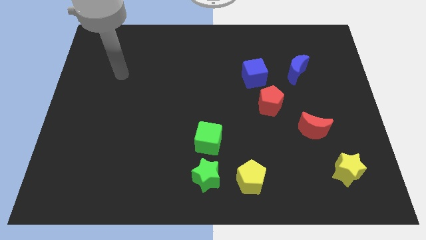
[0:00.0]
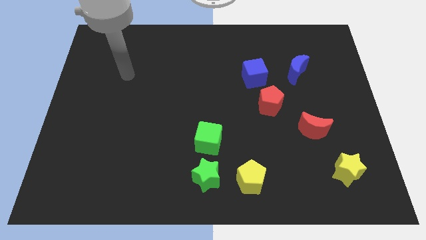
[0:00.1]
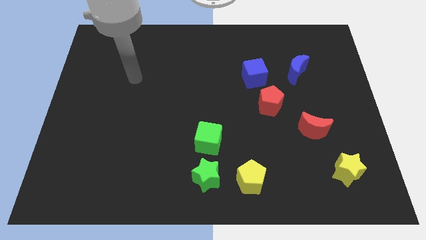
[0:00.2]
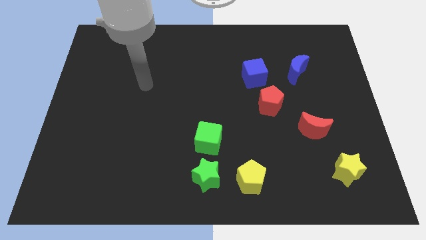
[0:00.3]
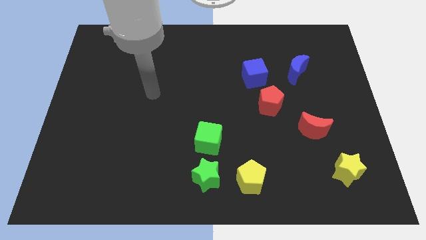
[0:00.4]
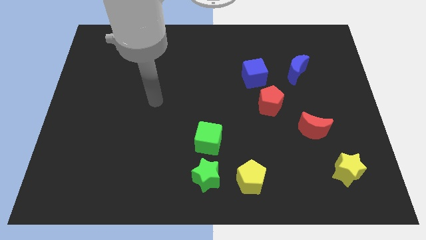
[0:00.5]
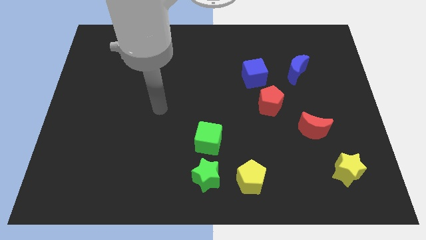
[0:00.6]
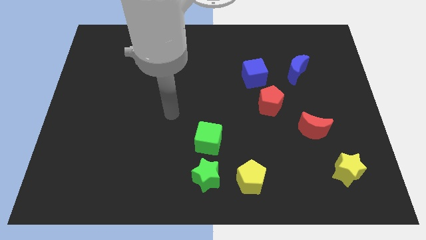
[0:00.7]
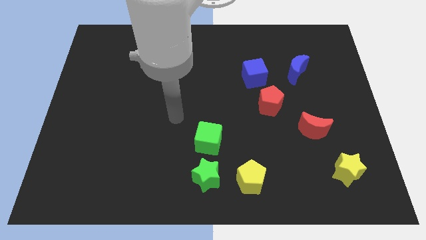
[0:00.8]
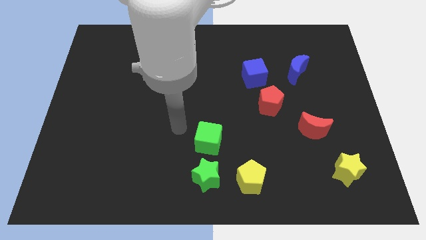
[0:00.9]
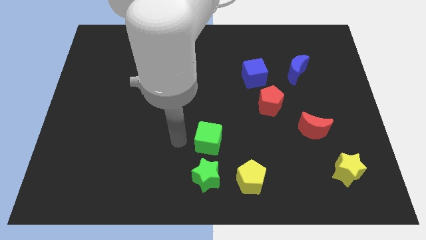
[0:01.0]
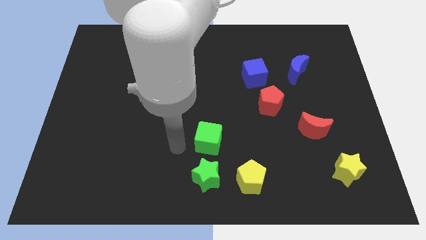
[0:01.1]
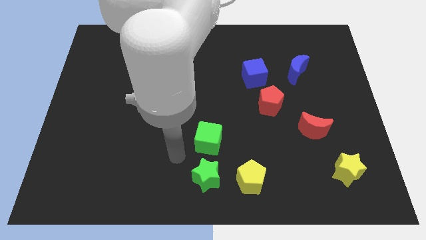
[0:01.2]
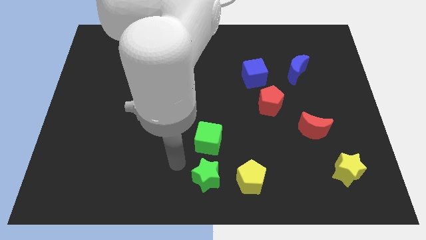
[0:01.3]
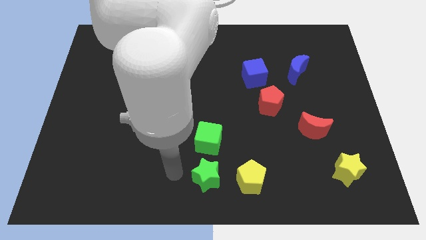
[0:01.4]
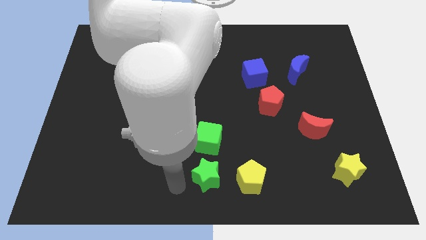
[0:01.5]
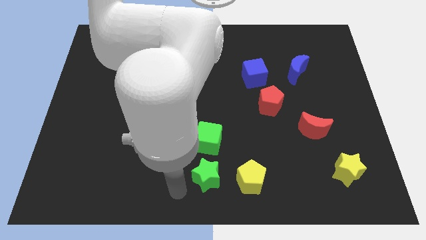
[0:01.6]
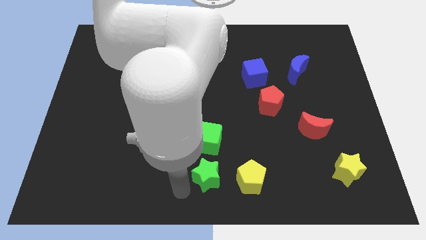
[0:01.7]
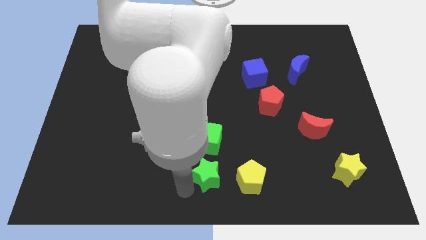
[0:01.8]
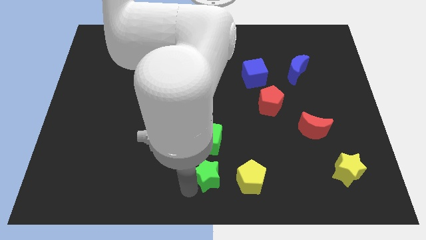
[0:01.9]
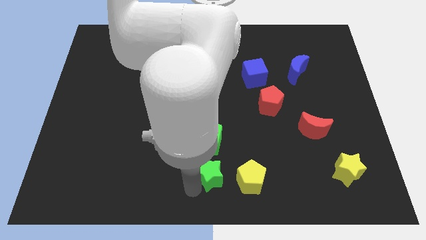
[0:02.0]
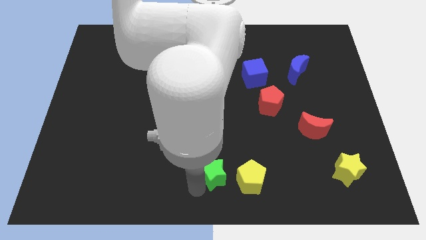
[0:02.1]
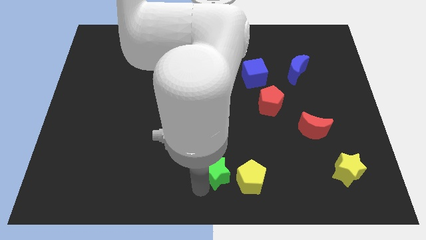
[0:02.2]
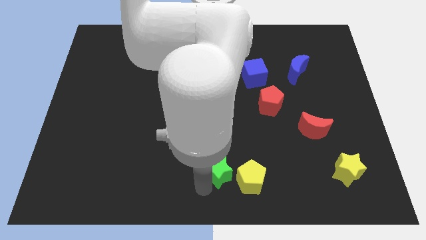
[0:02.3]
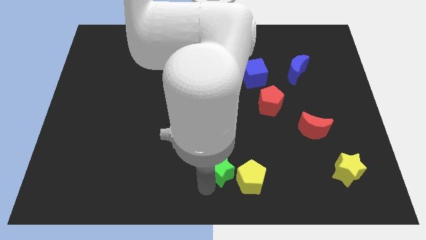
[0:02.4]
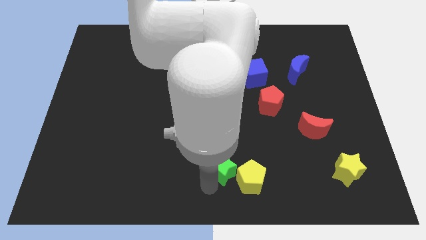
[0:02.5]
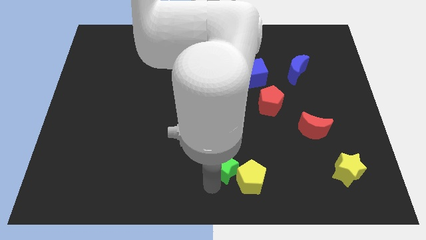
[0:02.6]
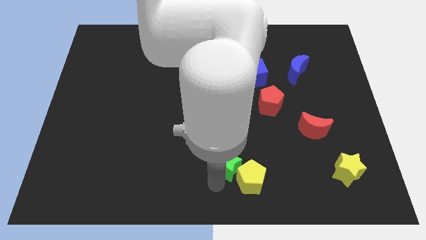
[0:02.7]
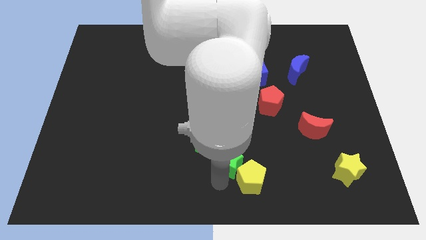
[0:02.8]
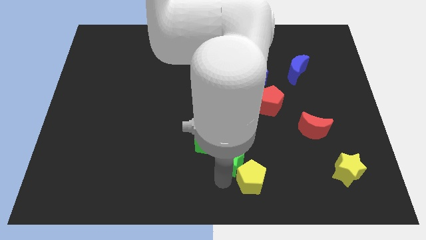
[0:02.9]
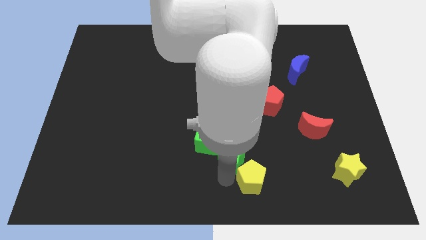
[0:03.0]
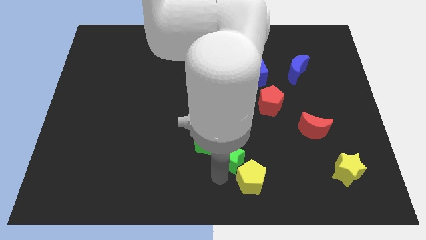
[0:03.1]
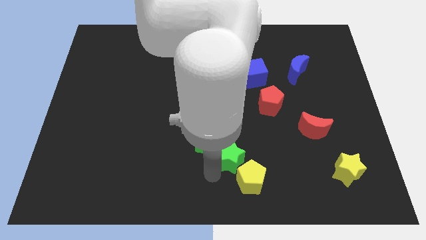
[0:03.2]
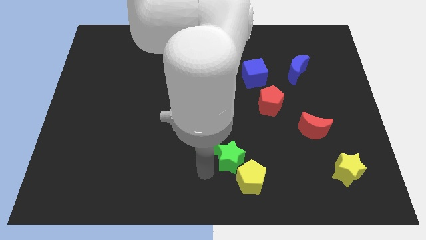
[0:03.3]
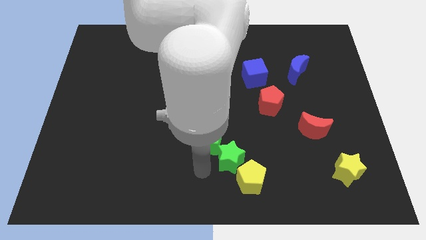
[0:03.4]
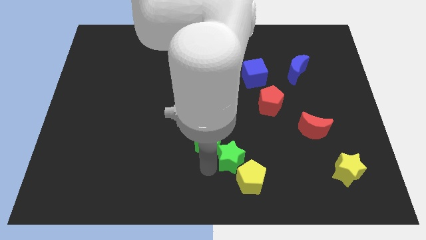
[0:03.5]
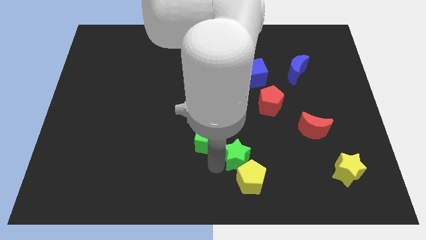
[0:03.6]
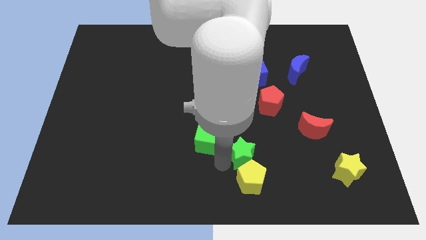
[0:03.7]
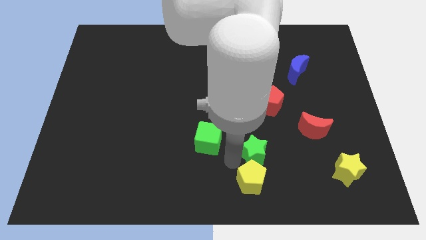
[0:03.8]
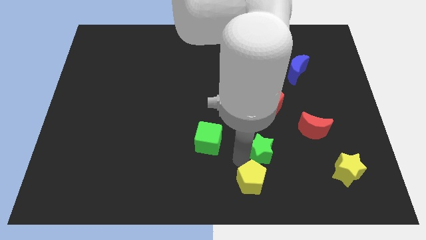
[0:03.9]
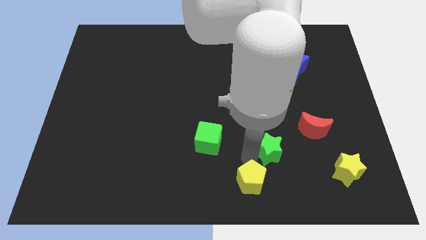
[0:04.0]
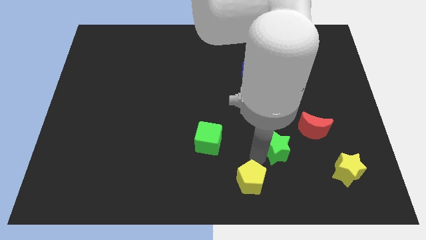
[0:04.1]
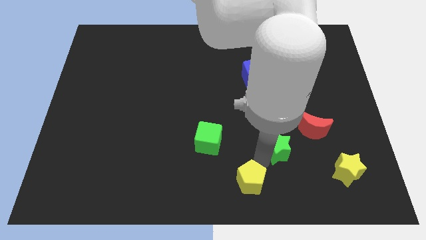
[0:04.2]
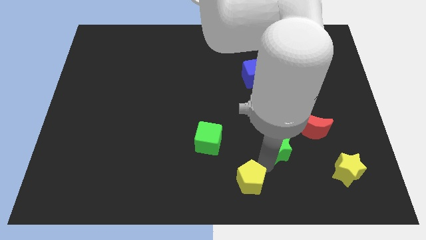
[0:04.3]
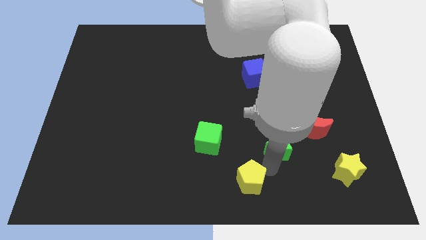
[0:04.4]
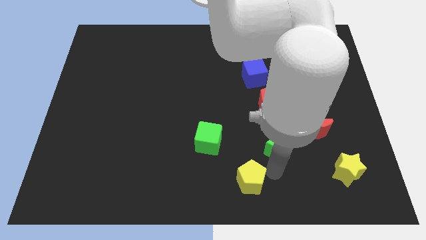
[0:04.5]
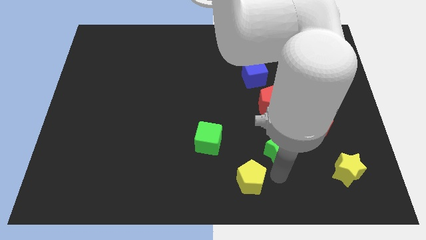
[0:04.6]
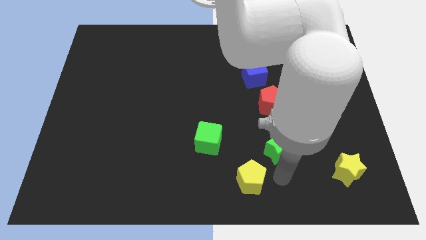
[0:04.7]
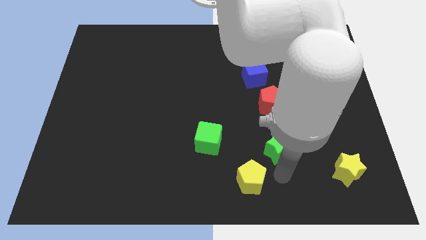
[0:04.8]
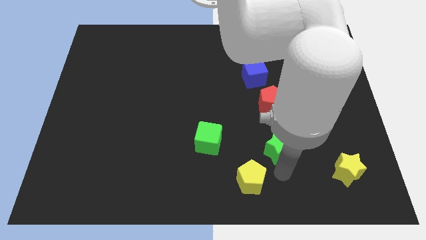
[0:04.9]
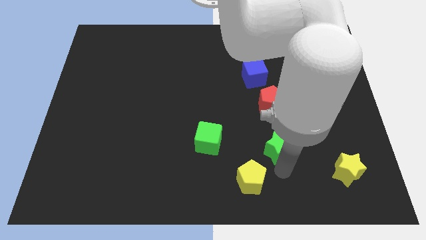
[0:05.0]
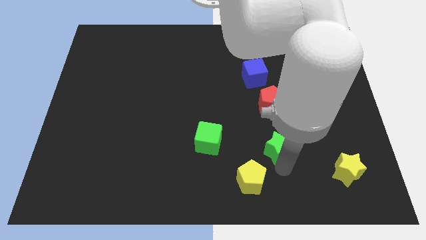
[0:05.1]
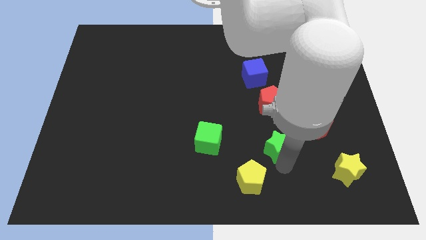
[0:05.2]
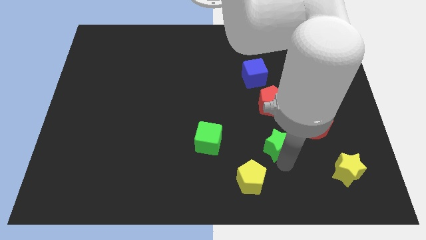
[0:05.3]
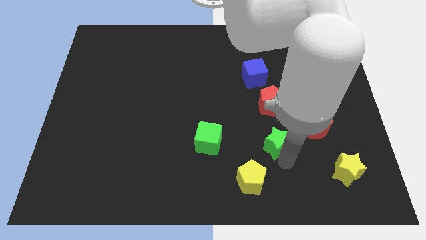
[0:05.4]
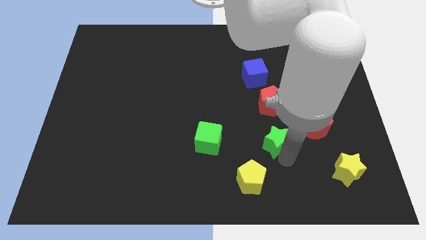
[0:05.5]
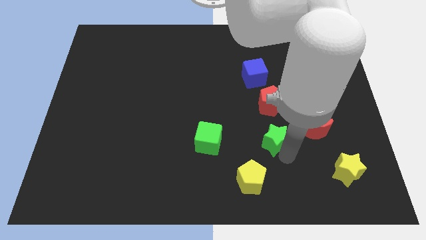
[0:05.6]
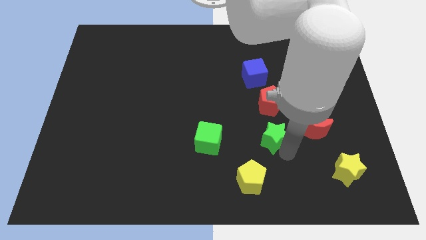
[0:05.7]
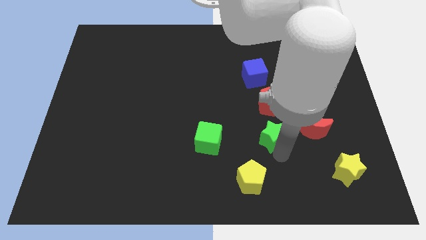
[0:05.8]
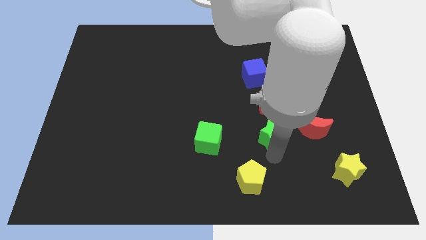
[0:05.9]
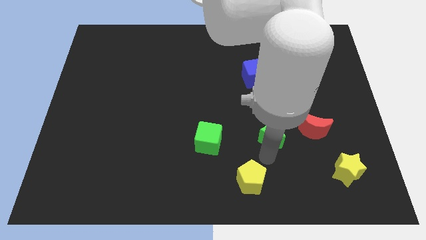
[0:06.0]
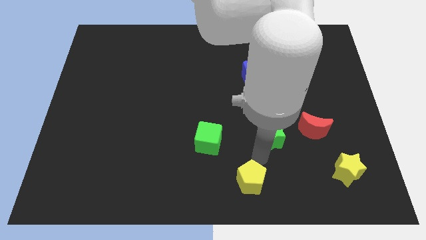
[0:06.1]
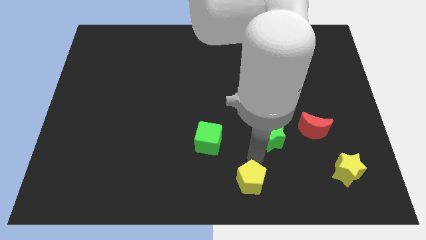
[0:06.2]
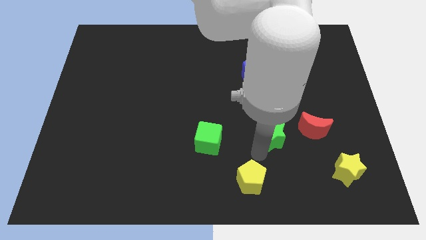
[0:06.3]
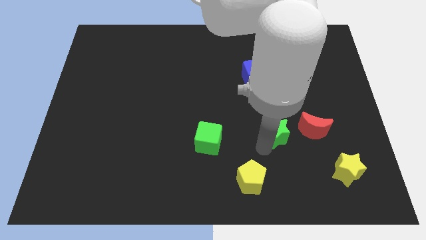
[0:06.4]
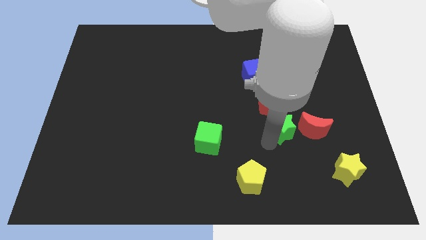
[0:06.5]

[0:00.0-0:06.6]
slide the green star up and to the right

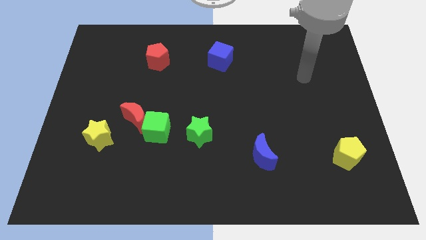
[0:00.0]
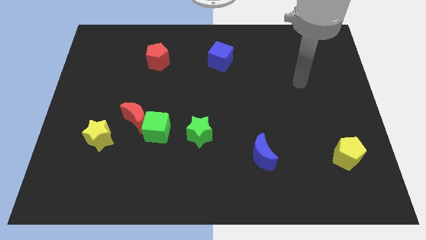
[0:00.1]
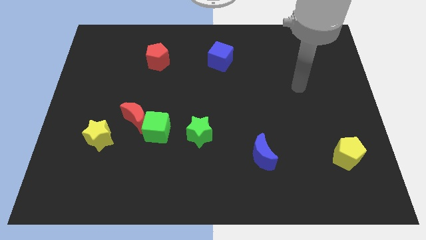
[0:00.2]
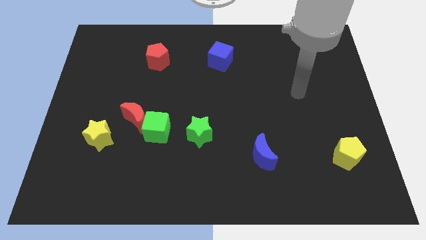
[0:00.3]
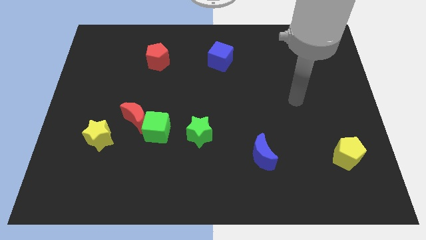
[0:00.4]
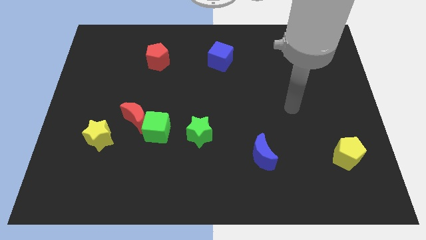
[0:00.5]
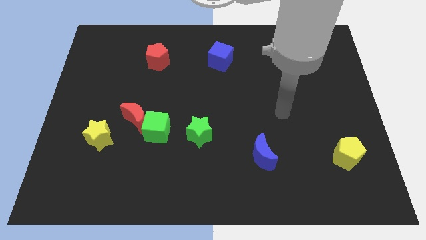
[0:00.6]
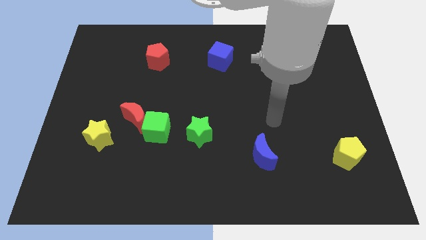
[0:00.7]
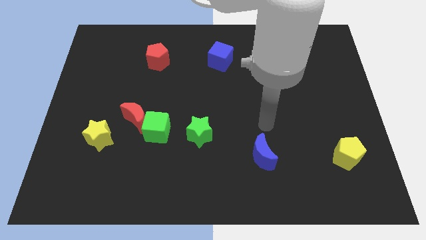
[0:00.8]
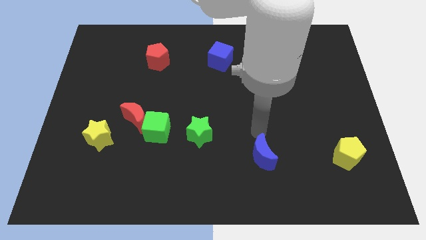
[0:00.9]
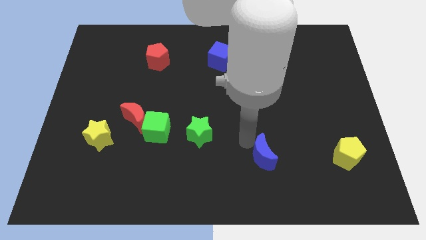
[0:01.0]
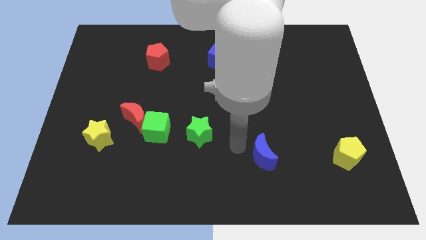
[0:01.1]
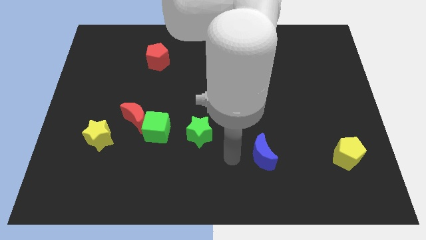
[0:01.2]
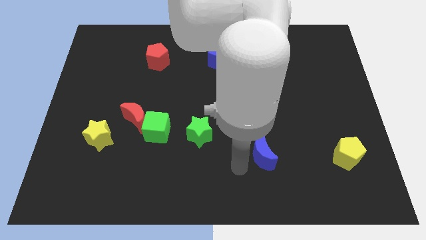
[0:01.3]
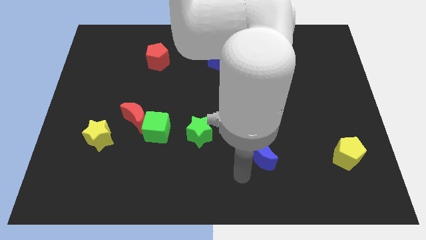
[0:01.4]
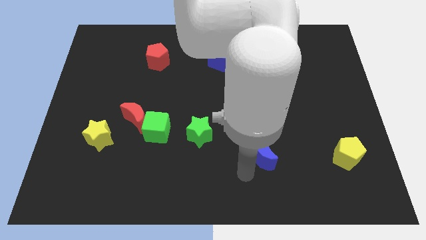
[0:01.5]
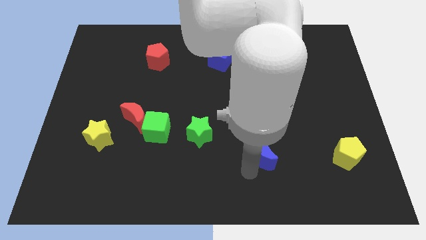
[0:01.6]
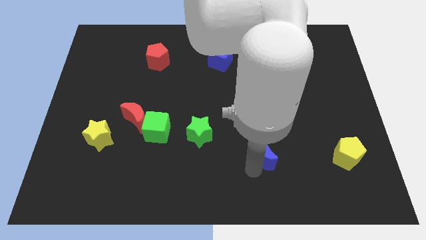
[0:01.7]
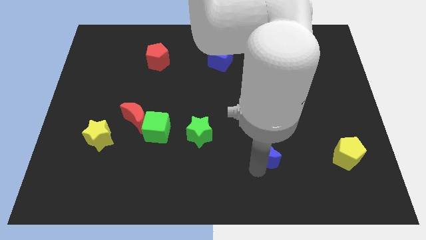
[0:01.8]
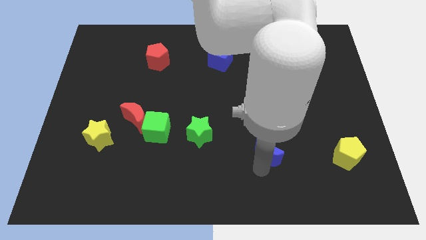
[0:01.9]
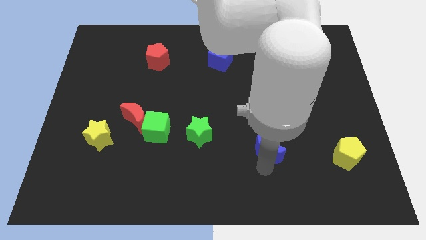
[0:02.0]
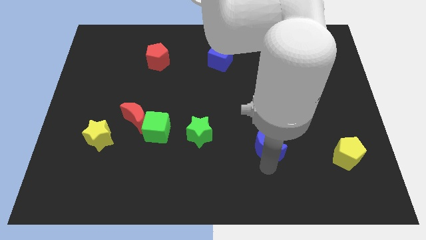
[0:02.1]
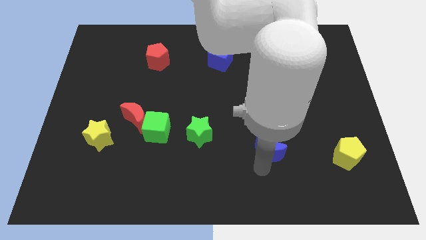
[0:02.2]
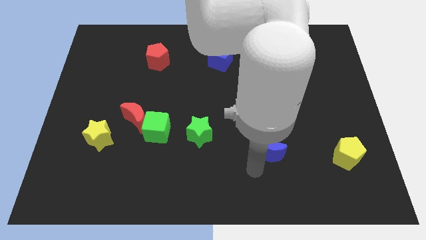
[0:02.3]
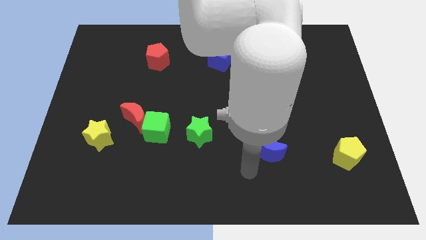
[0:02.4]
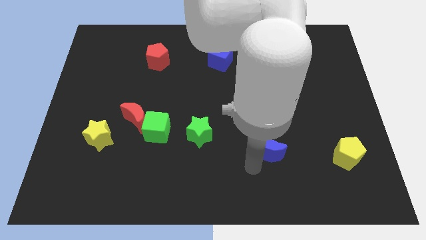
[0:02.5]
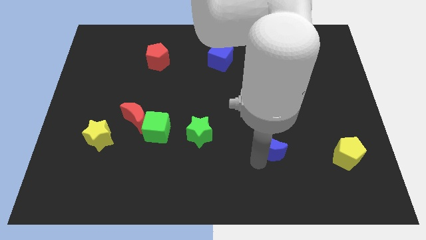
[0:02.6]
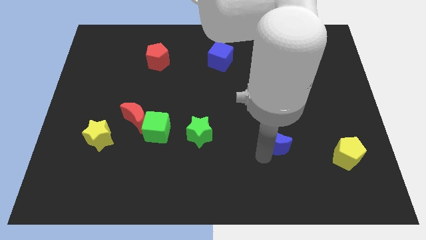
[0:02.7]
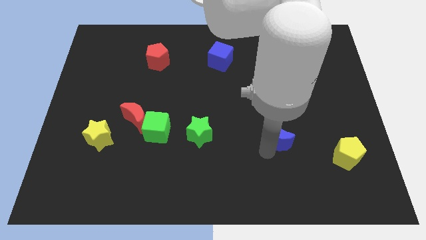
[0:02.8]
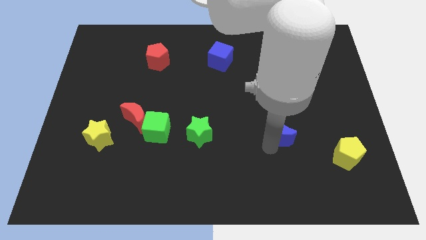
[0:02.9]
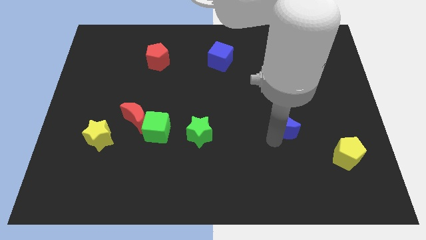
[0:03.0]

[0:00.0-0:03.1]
push the blue moon slightly up and right
